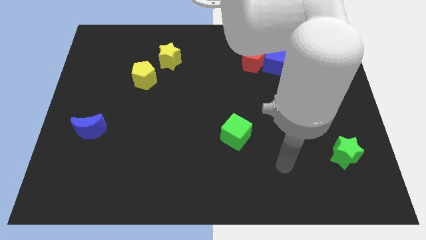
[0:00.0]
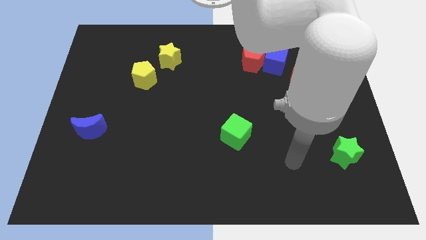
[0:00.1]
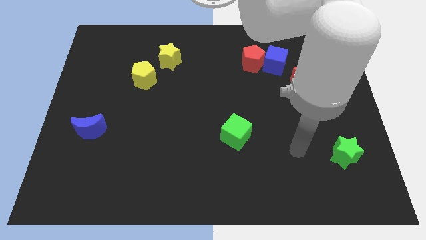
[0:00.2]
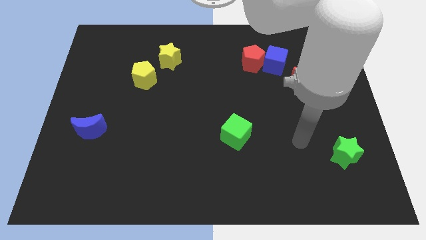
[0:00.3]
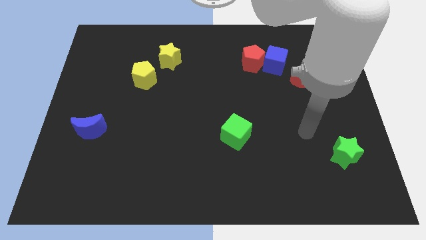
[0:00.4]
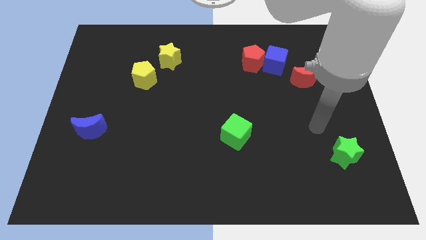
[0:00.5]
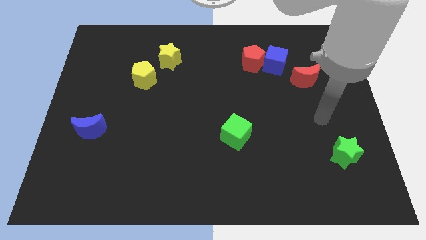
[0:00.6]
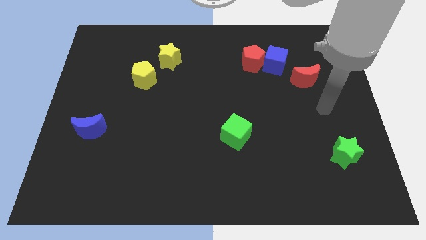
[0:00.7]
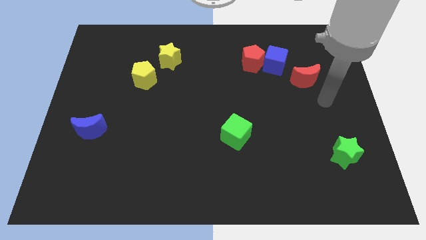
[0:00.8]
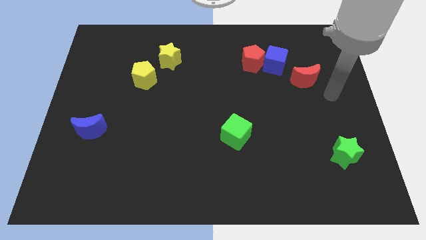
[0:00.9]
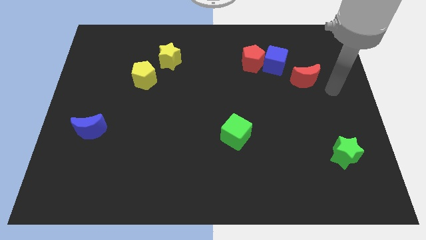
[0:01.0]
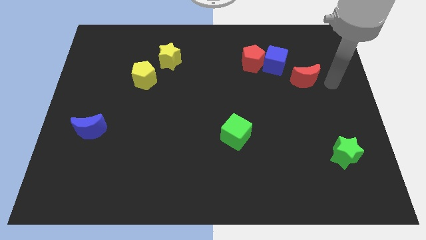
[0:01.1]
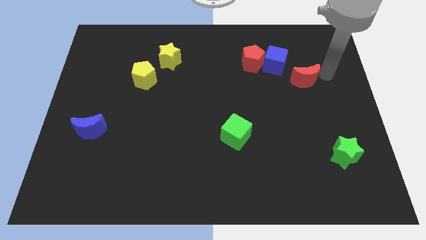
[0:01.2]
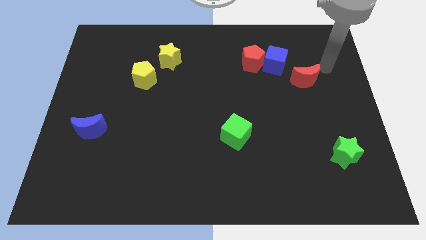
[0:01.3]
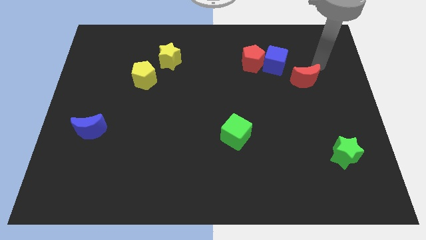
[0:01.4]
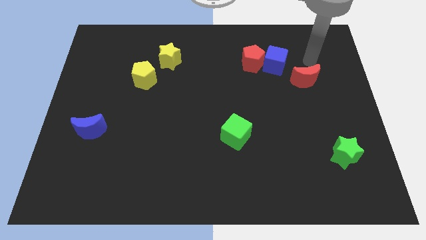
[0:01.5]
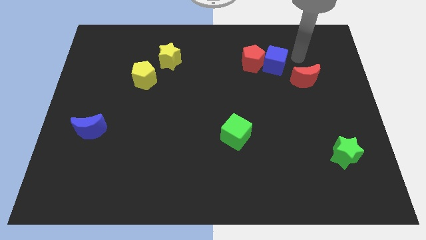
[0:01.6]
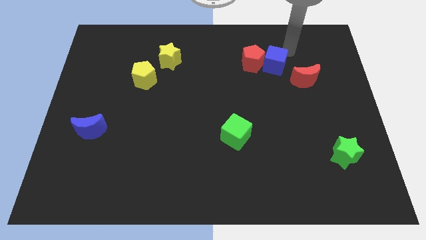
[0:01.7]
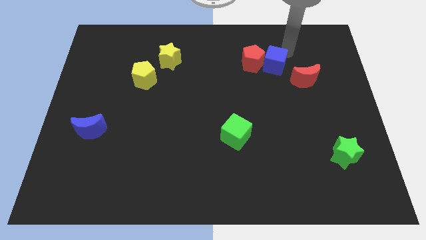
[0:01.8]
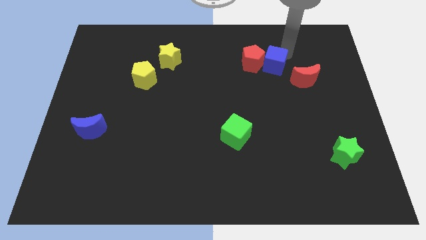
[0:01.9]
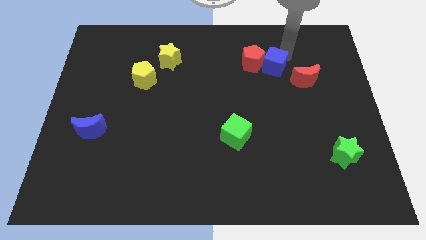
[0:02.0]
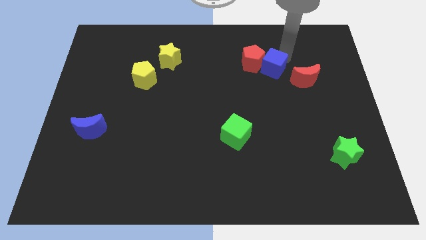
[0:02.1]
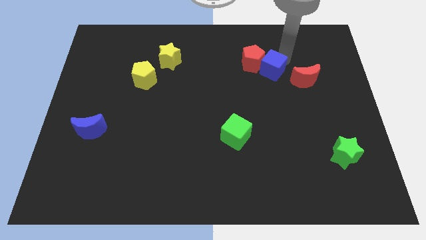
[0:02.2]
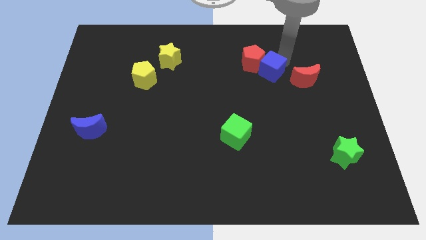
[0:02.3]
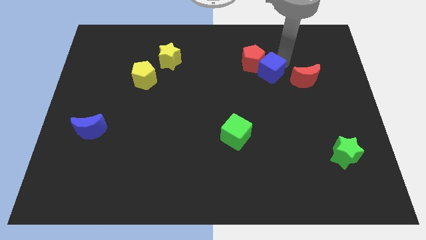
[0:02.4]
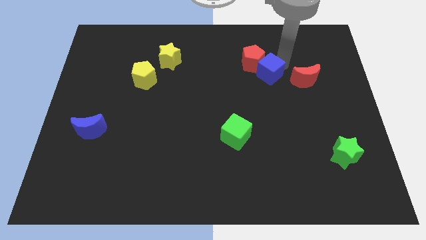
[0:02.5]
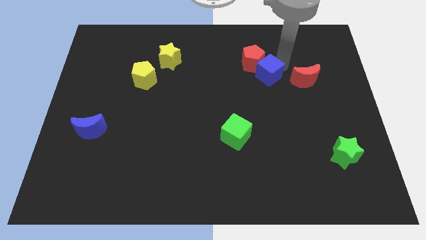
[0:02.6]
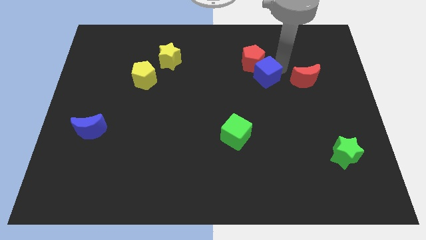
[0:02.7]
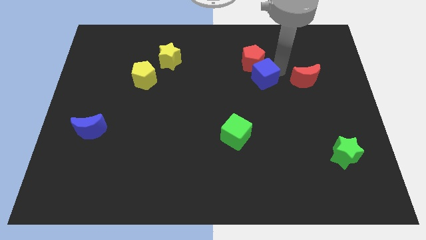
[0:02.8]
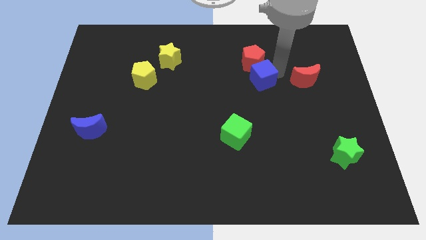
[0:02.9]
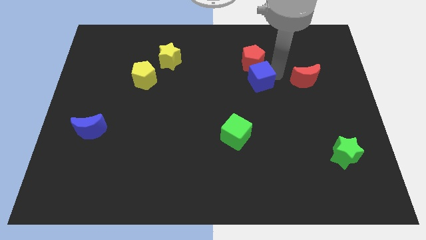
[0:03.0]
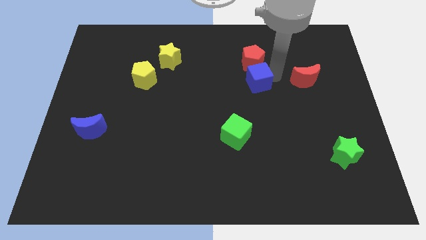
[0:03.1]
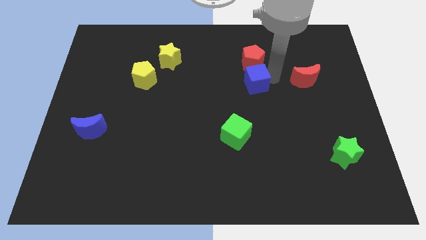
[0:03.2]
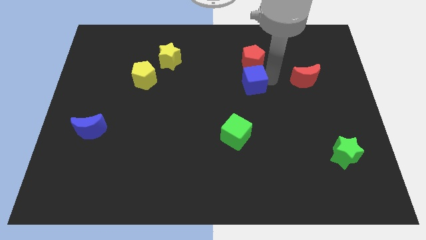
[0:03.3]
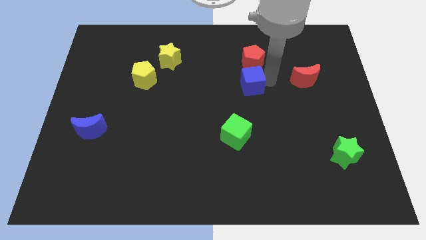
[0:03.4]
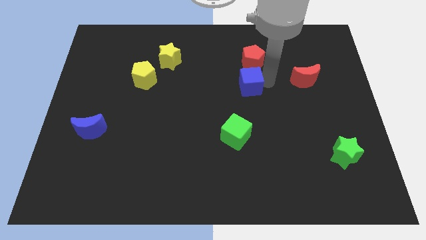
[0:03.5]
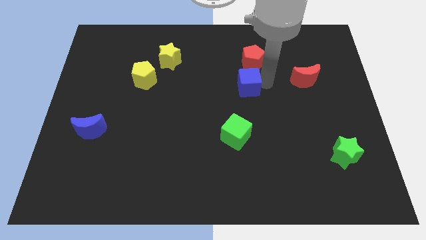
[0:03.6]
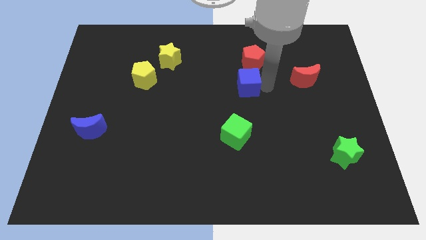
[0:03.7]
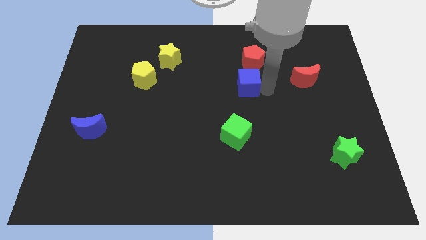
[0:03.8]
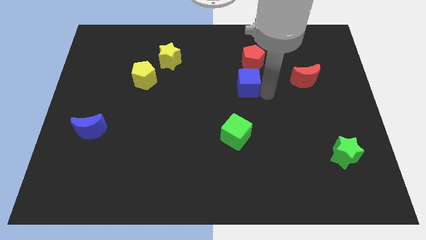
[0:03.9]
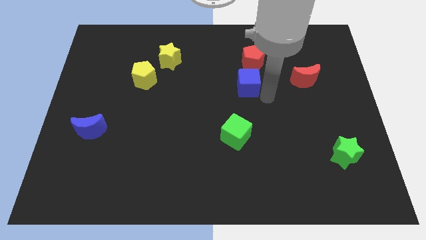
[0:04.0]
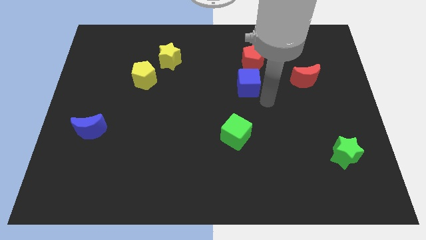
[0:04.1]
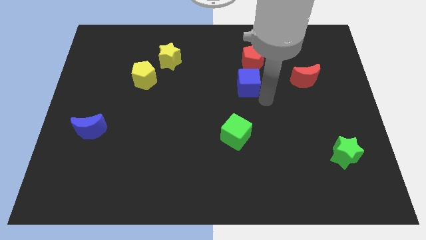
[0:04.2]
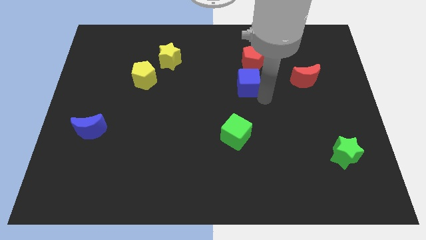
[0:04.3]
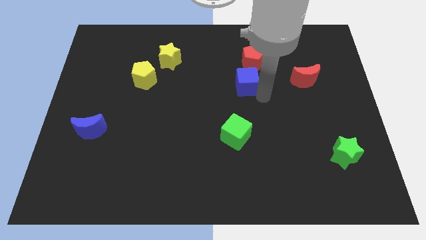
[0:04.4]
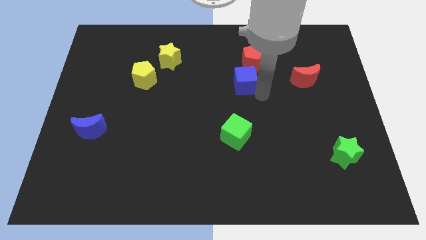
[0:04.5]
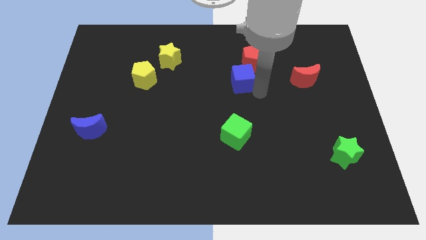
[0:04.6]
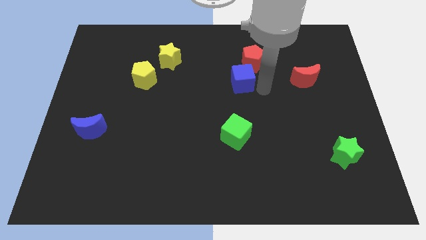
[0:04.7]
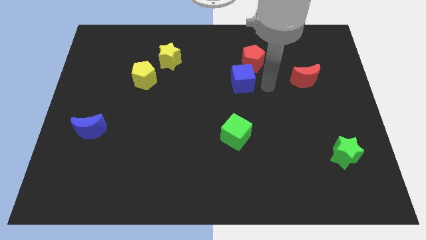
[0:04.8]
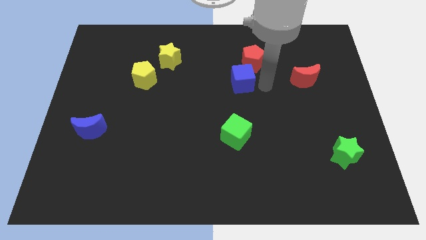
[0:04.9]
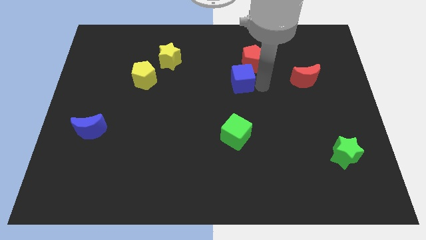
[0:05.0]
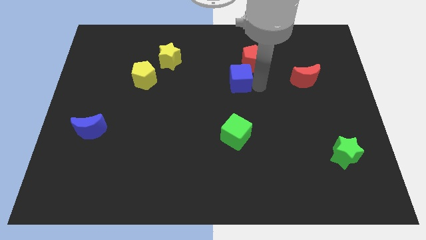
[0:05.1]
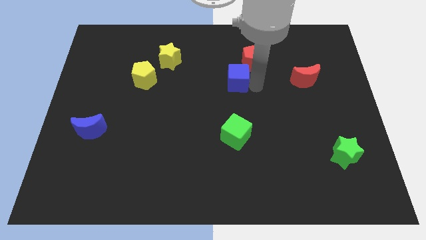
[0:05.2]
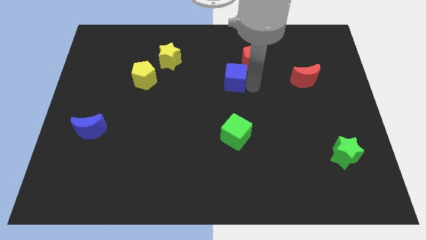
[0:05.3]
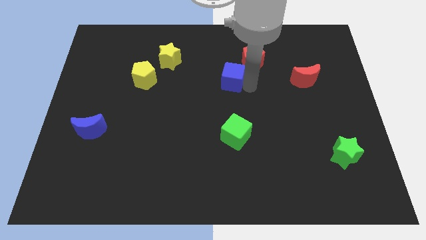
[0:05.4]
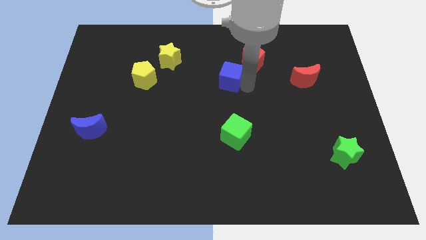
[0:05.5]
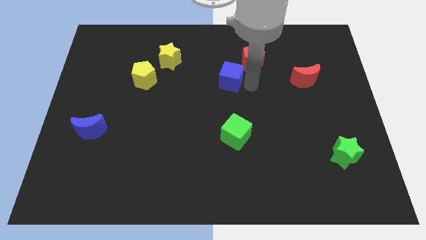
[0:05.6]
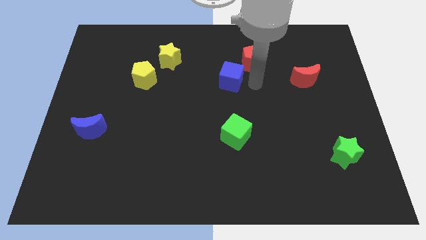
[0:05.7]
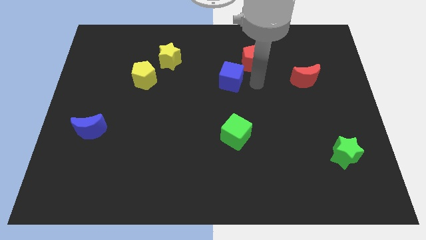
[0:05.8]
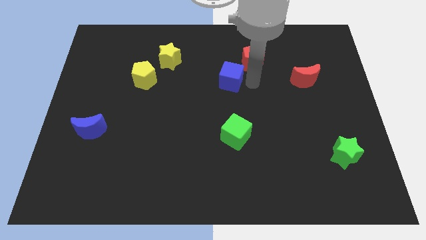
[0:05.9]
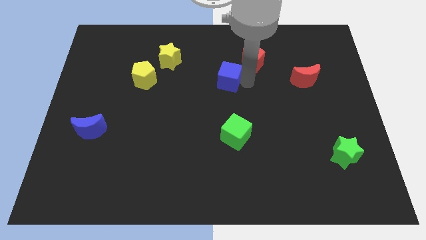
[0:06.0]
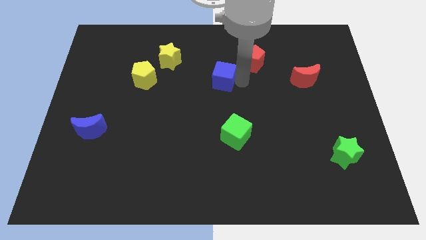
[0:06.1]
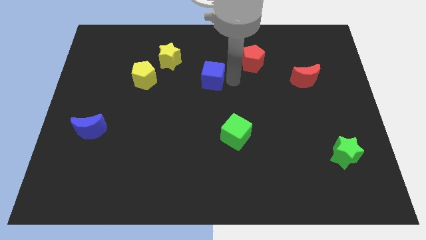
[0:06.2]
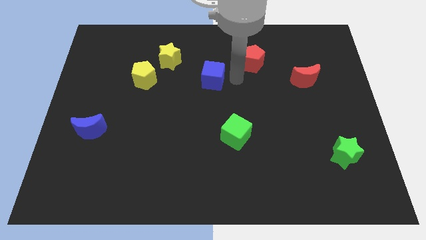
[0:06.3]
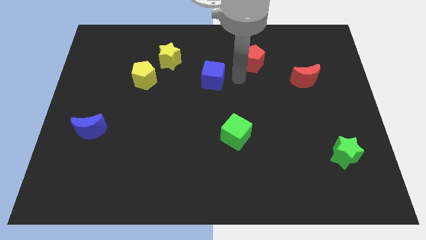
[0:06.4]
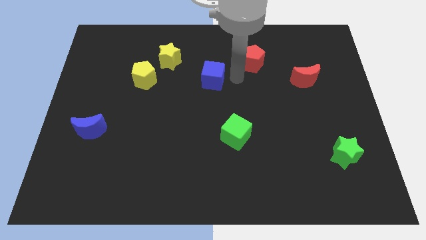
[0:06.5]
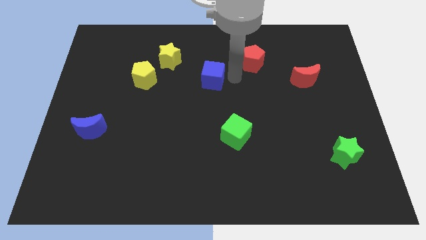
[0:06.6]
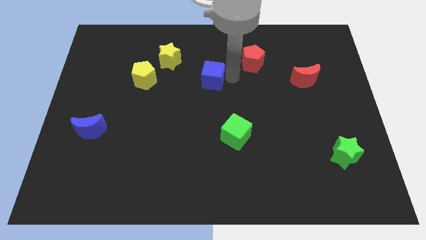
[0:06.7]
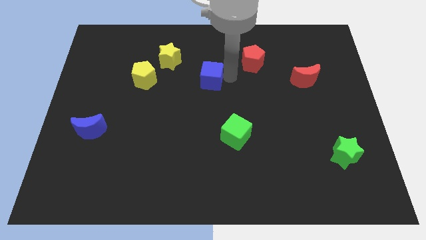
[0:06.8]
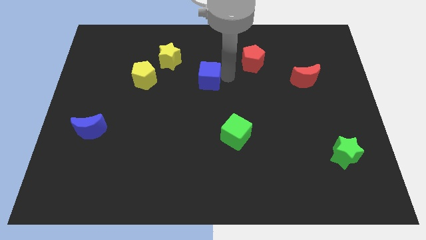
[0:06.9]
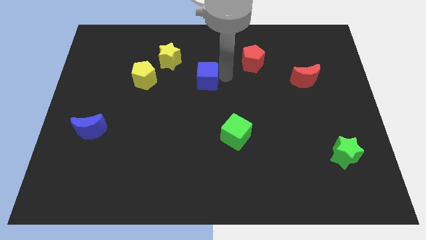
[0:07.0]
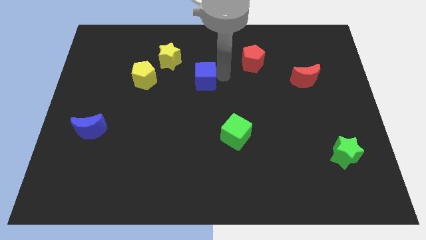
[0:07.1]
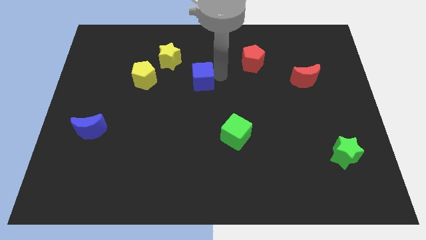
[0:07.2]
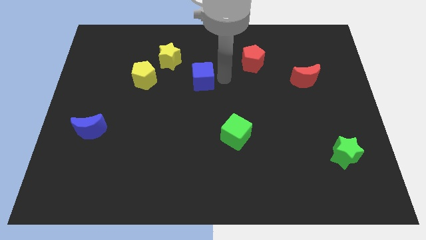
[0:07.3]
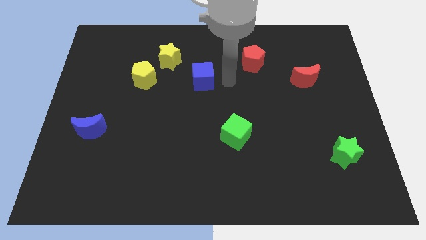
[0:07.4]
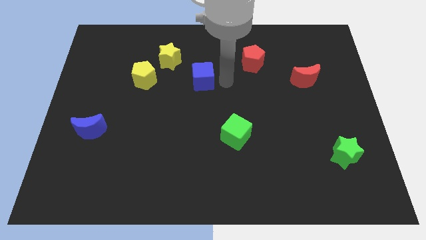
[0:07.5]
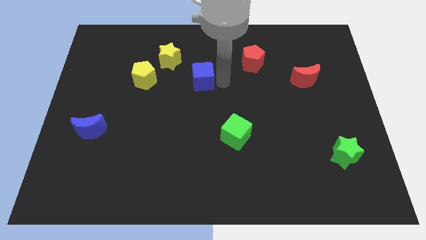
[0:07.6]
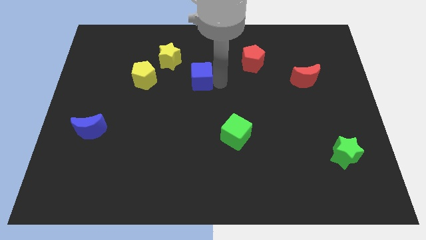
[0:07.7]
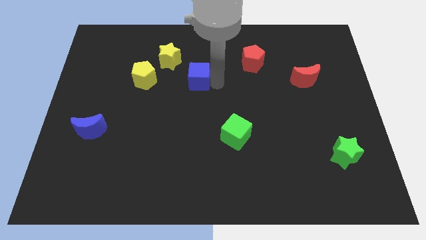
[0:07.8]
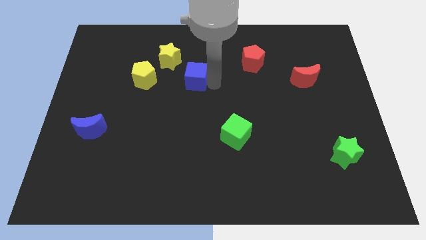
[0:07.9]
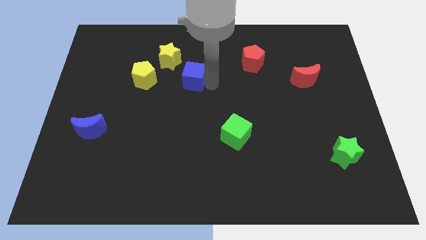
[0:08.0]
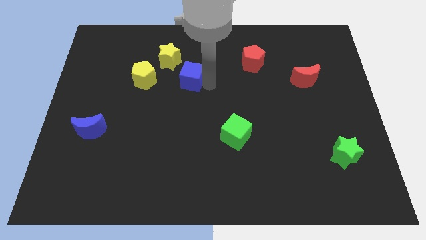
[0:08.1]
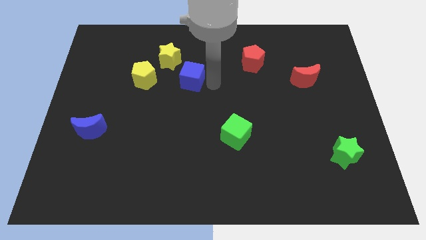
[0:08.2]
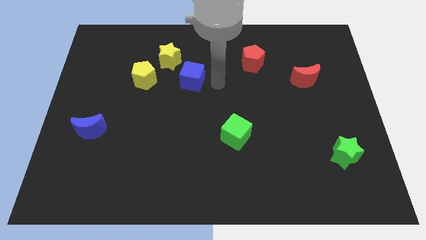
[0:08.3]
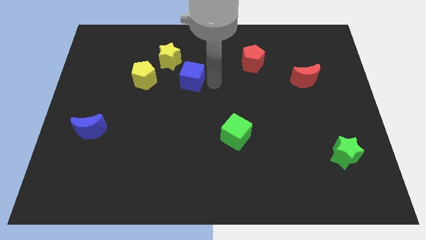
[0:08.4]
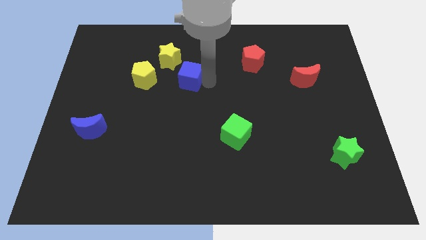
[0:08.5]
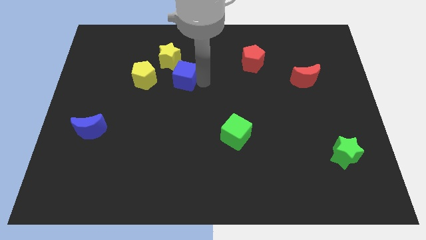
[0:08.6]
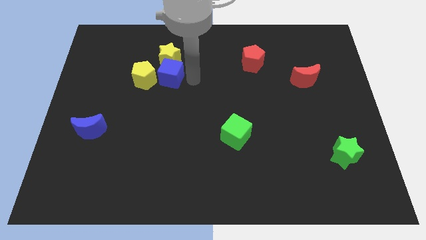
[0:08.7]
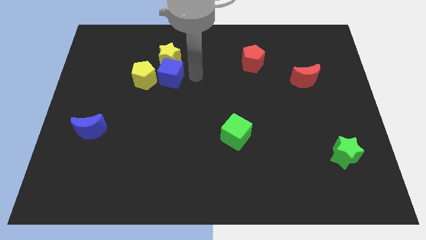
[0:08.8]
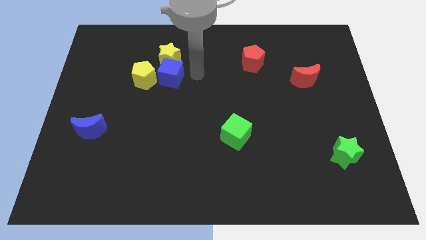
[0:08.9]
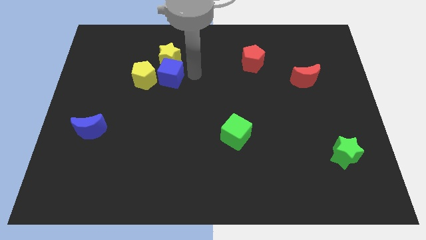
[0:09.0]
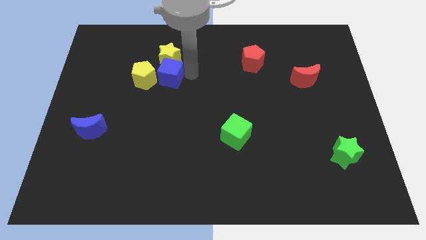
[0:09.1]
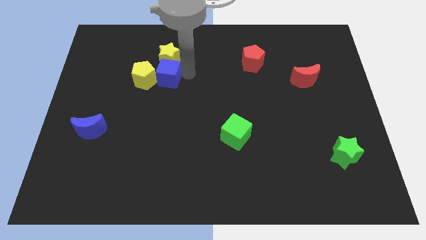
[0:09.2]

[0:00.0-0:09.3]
slide the blue cube to the yellow pentagon
